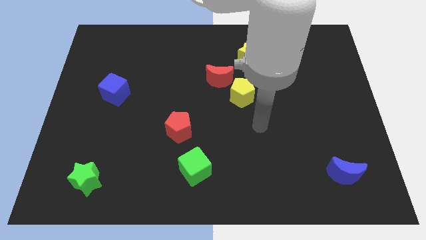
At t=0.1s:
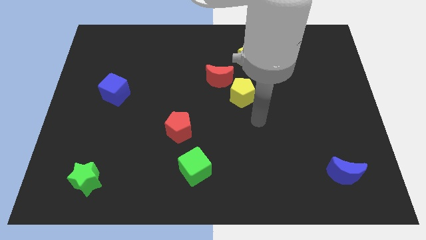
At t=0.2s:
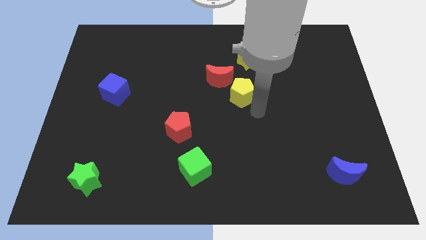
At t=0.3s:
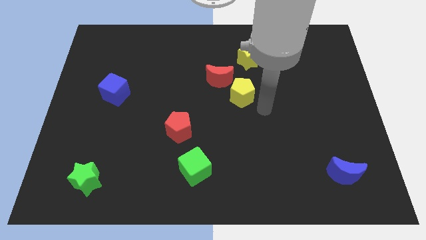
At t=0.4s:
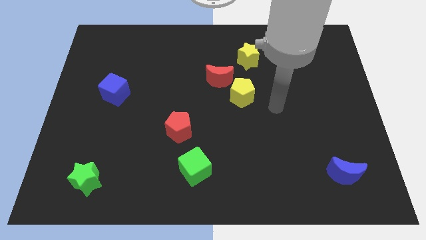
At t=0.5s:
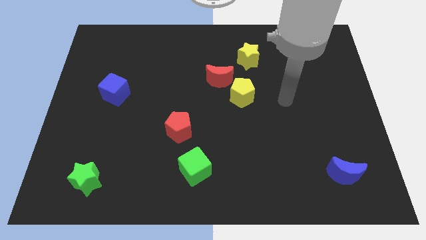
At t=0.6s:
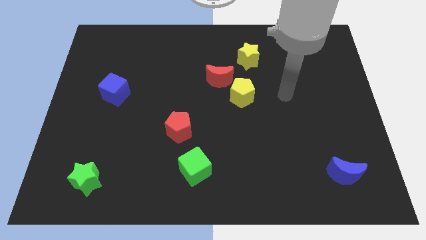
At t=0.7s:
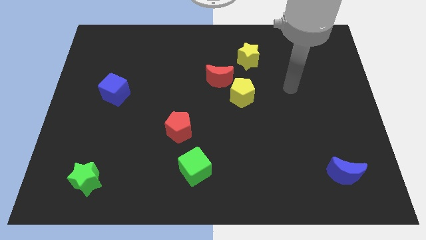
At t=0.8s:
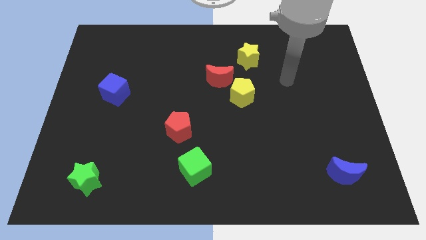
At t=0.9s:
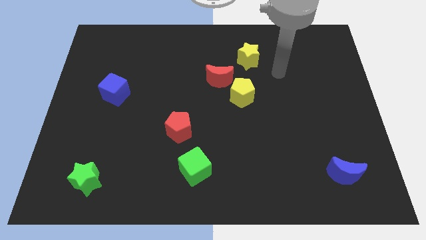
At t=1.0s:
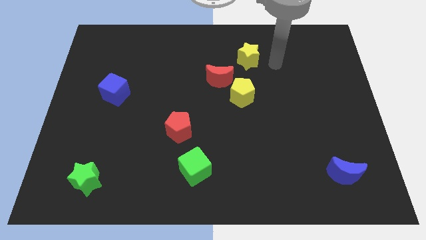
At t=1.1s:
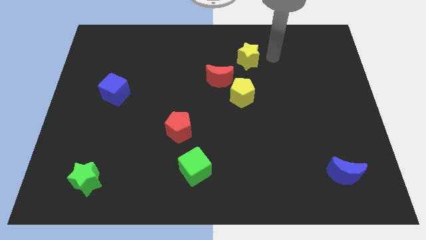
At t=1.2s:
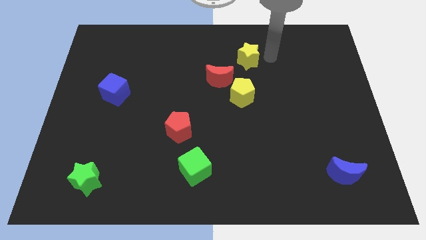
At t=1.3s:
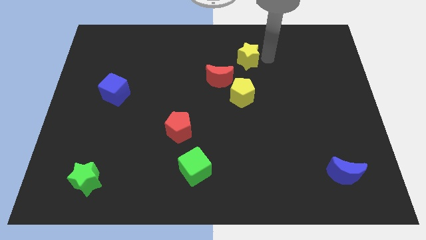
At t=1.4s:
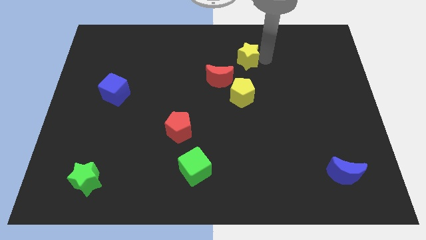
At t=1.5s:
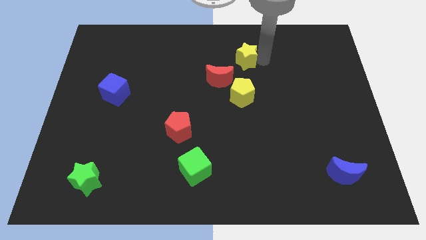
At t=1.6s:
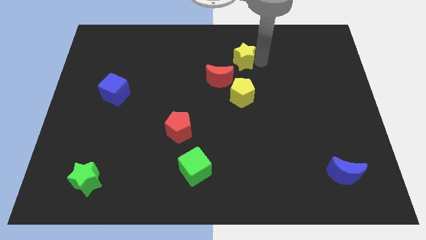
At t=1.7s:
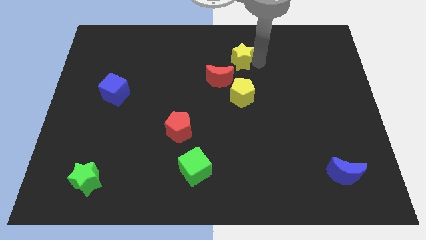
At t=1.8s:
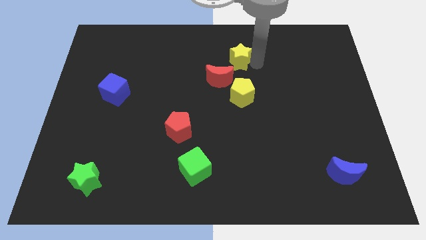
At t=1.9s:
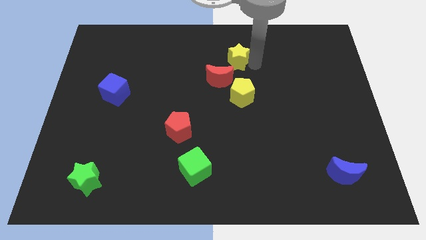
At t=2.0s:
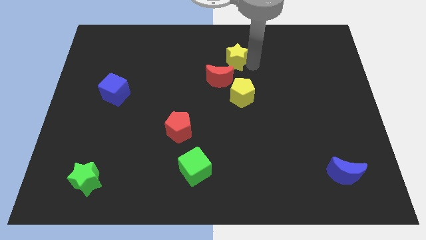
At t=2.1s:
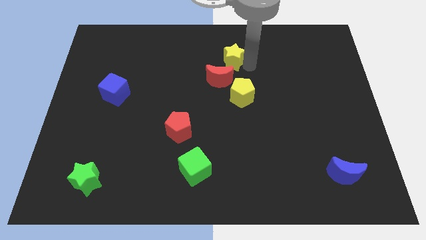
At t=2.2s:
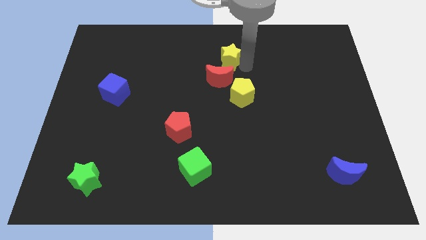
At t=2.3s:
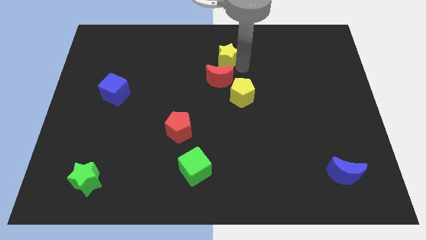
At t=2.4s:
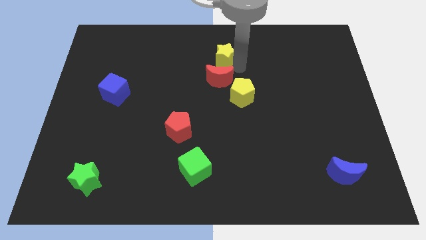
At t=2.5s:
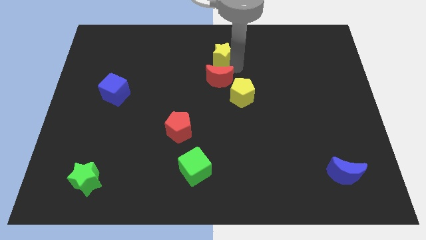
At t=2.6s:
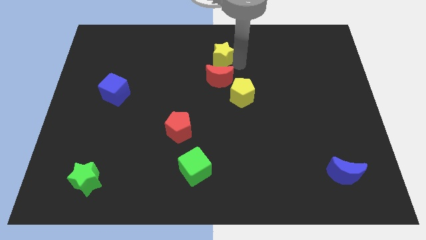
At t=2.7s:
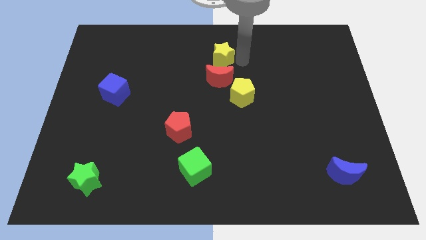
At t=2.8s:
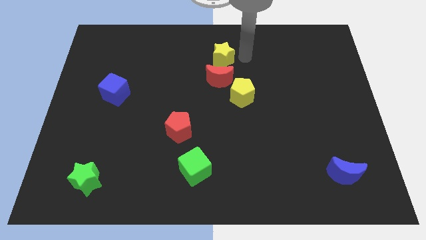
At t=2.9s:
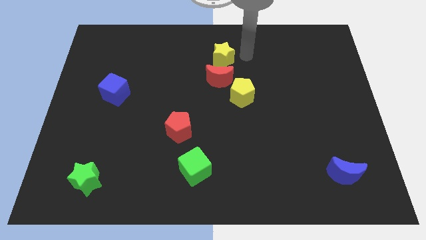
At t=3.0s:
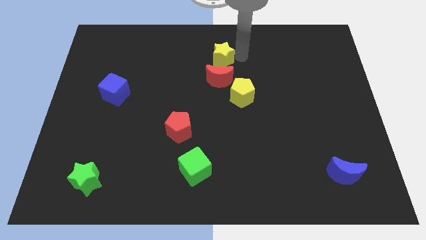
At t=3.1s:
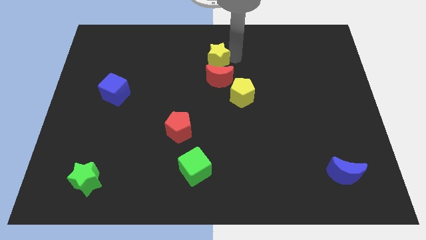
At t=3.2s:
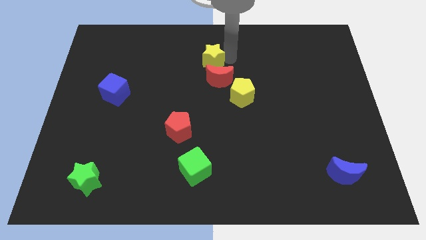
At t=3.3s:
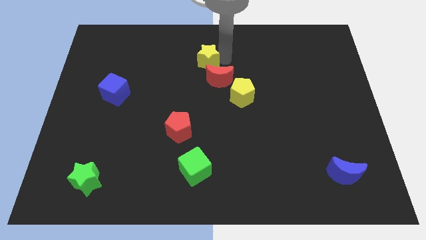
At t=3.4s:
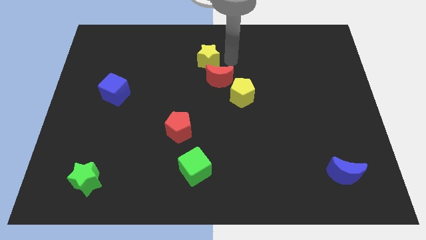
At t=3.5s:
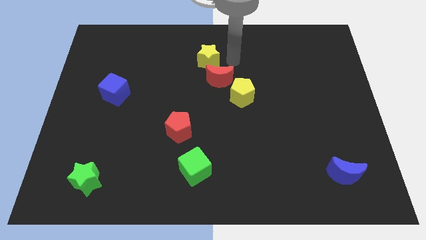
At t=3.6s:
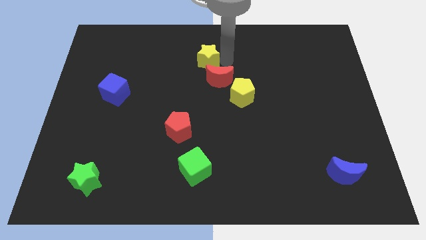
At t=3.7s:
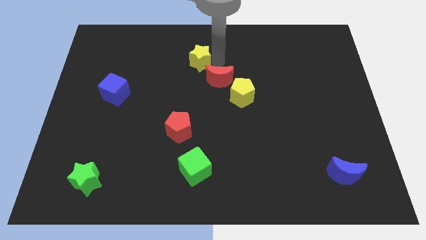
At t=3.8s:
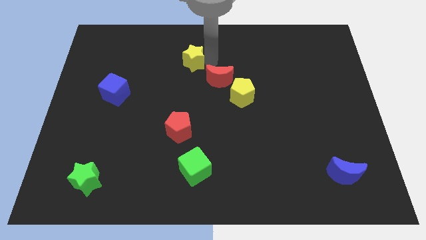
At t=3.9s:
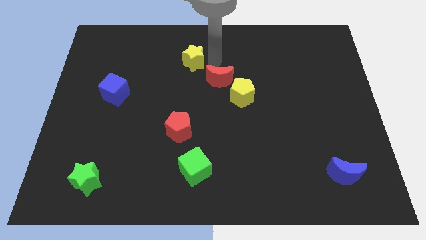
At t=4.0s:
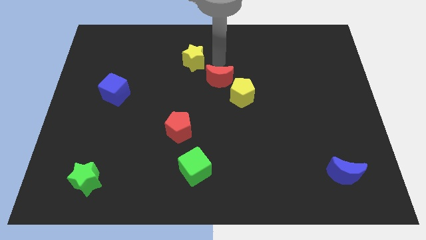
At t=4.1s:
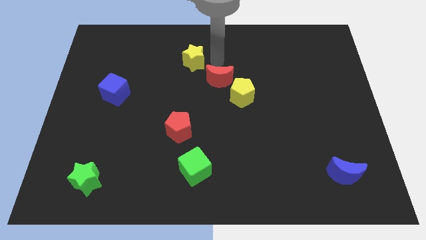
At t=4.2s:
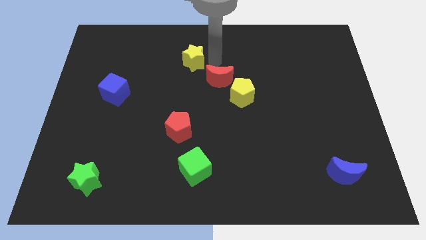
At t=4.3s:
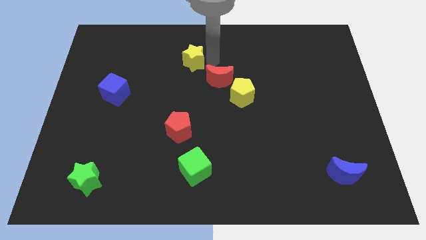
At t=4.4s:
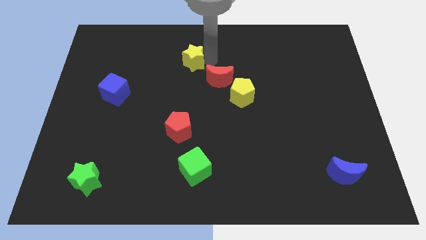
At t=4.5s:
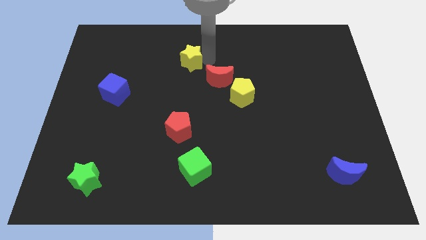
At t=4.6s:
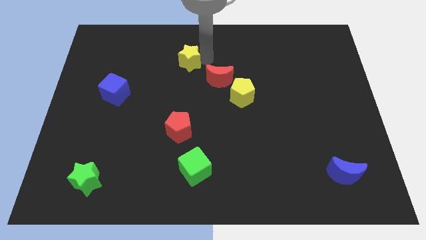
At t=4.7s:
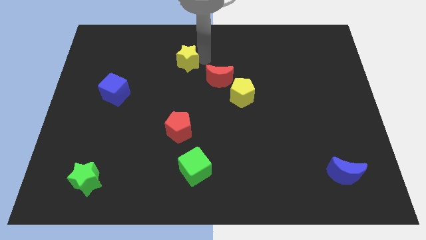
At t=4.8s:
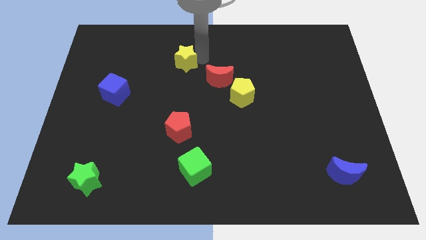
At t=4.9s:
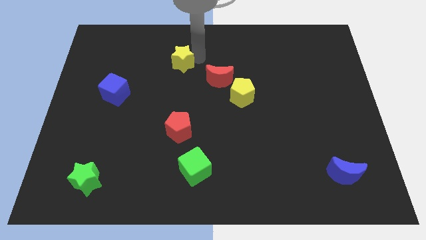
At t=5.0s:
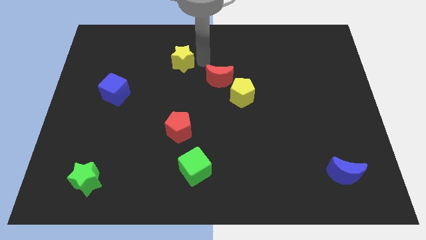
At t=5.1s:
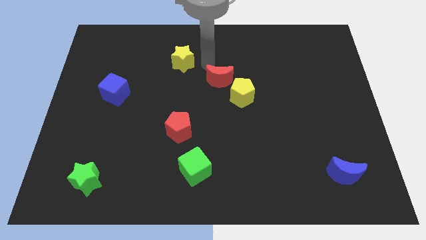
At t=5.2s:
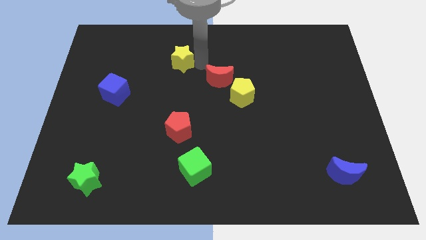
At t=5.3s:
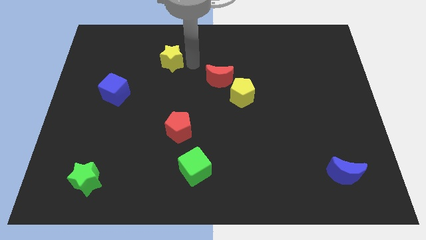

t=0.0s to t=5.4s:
slide the yellow star to the left

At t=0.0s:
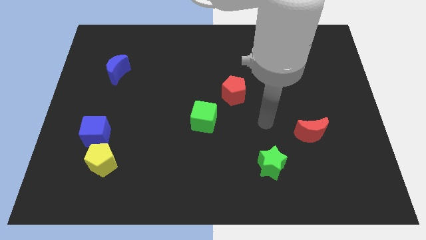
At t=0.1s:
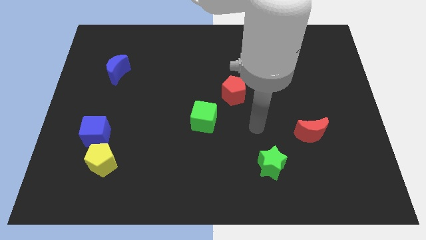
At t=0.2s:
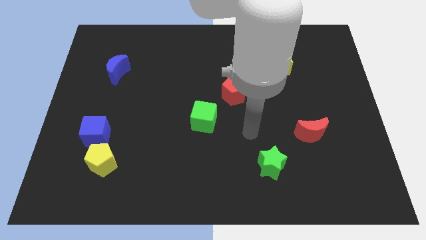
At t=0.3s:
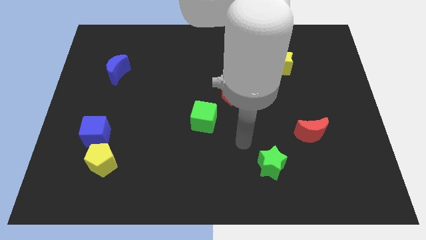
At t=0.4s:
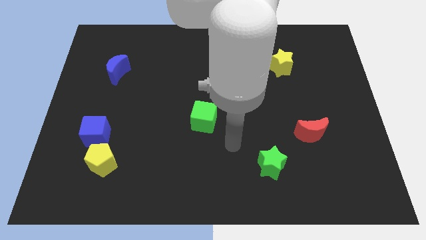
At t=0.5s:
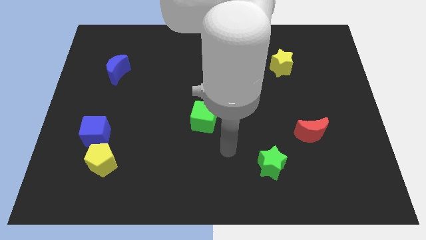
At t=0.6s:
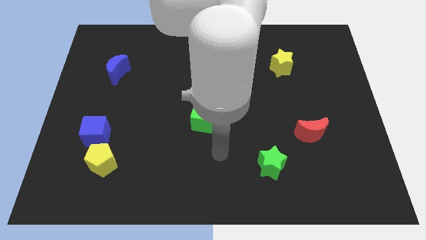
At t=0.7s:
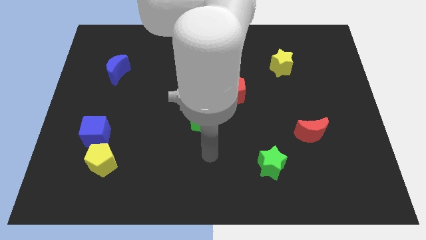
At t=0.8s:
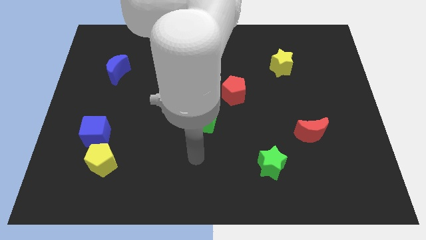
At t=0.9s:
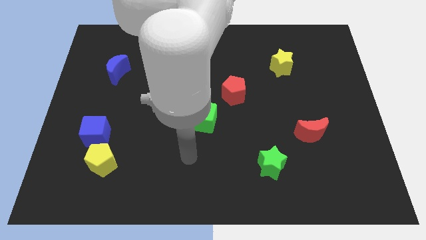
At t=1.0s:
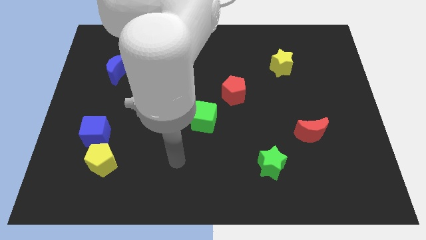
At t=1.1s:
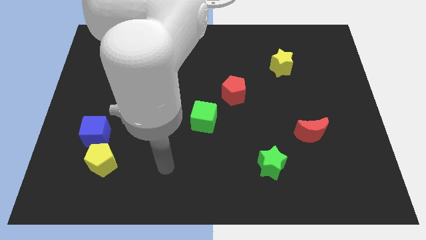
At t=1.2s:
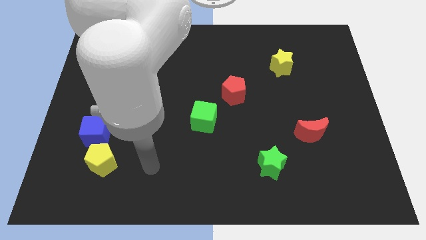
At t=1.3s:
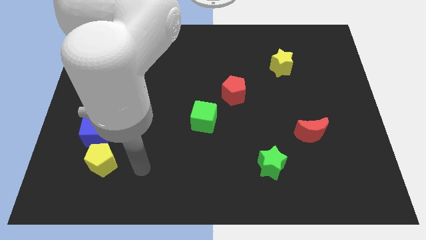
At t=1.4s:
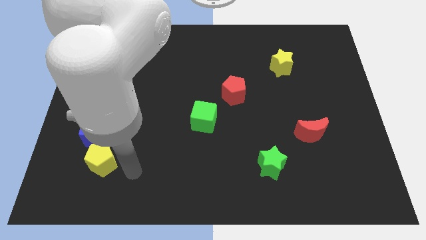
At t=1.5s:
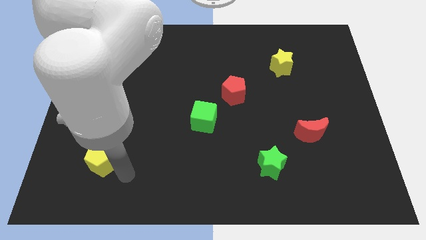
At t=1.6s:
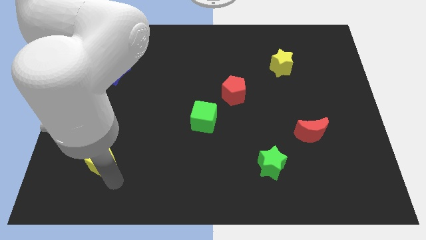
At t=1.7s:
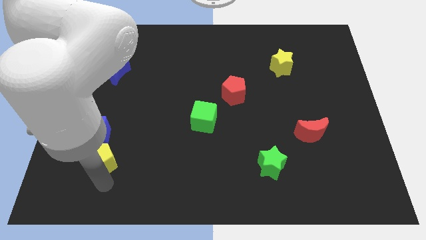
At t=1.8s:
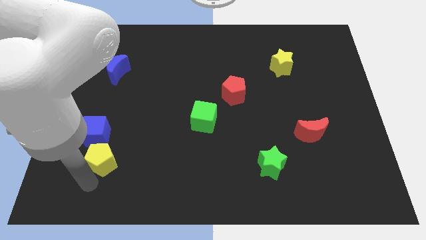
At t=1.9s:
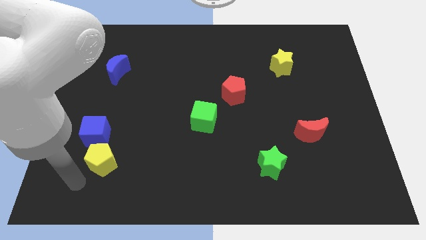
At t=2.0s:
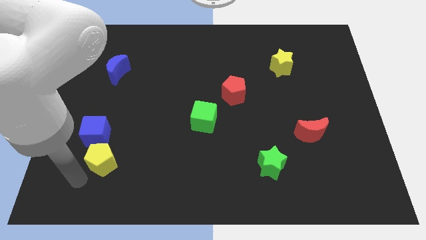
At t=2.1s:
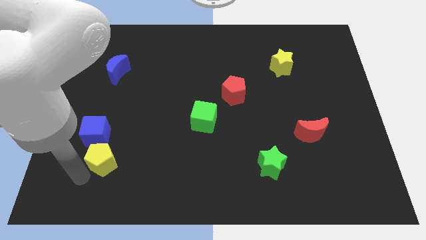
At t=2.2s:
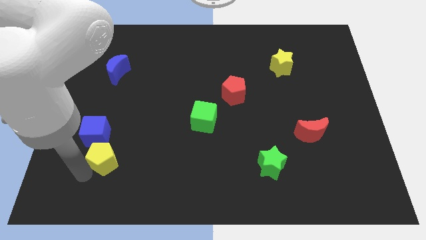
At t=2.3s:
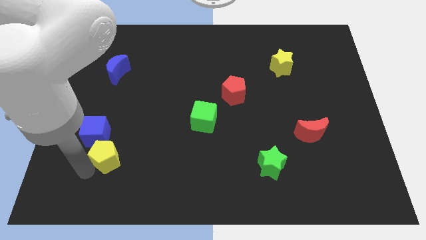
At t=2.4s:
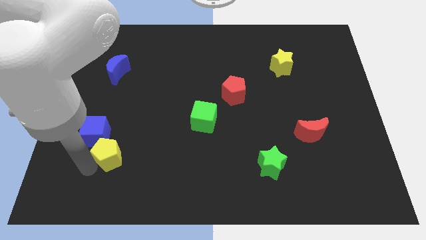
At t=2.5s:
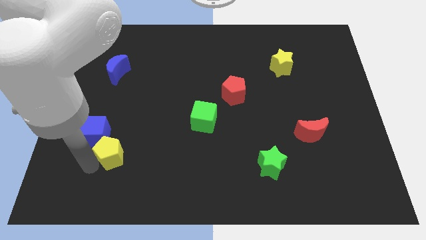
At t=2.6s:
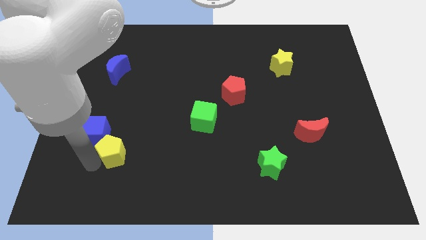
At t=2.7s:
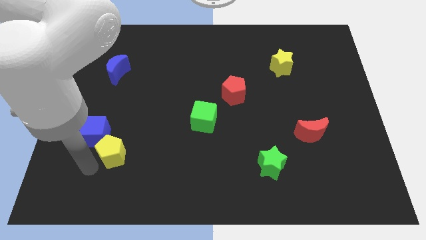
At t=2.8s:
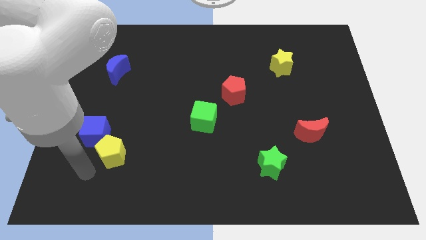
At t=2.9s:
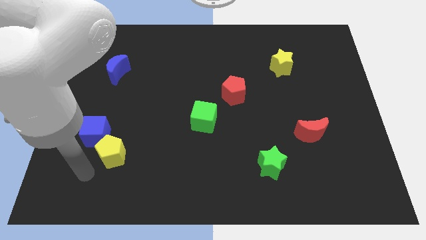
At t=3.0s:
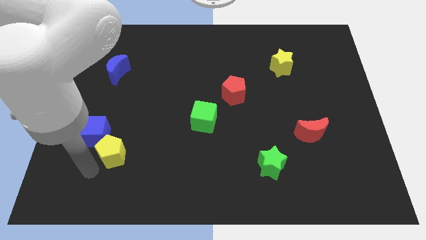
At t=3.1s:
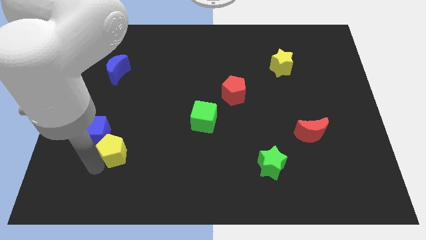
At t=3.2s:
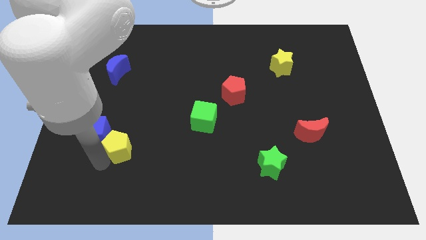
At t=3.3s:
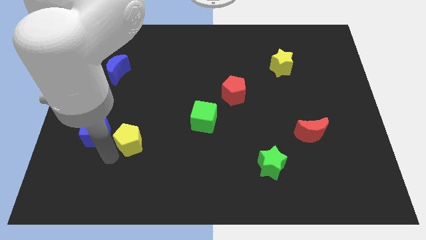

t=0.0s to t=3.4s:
move the yellow pentagon a little bit up and right
